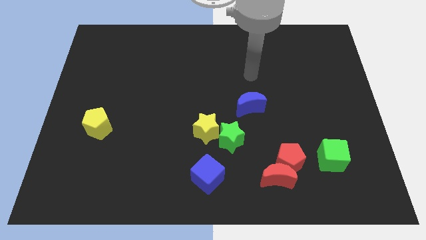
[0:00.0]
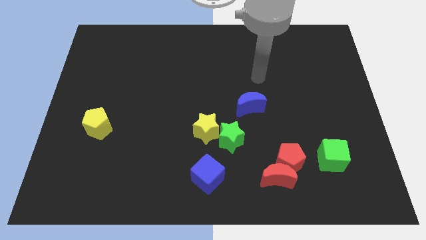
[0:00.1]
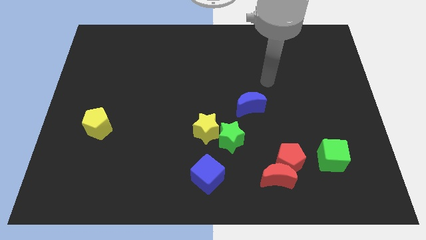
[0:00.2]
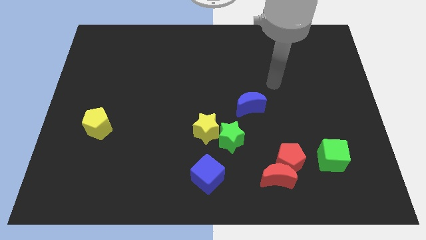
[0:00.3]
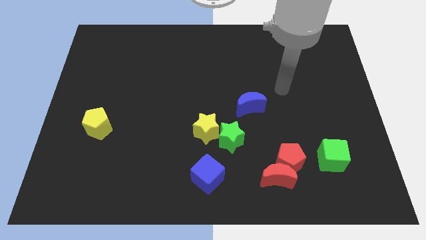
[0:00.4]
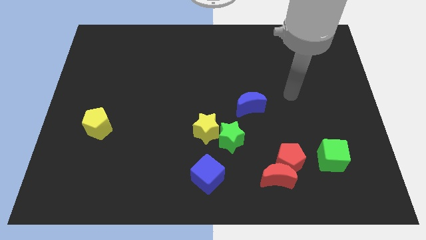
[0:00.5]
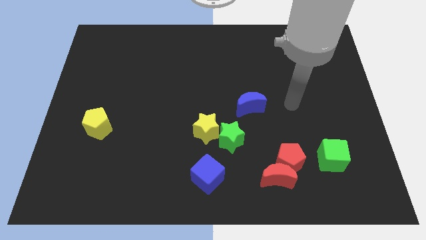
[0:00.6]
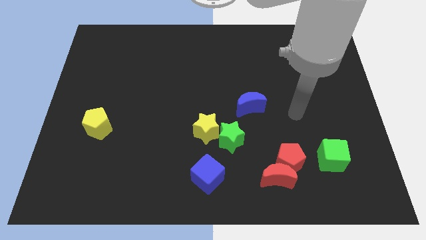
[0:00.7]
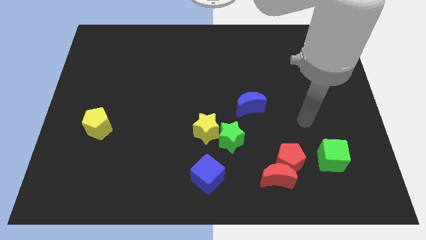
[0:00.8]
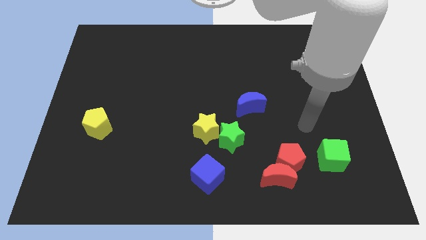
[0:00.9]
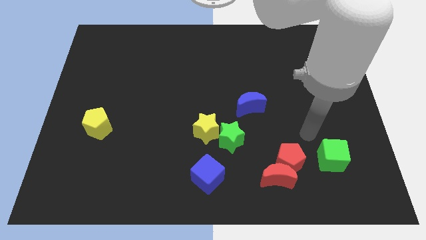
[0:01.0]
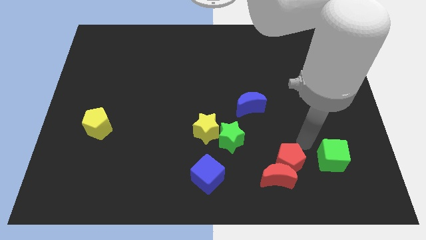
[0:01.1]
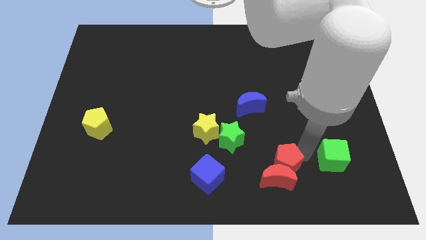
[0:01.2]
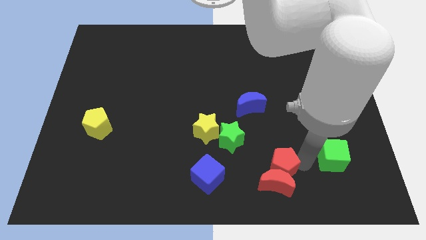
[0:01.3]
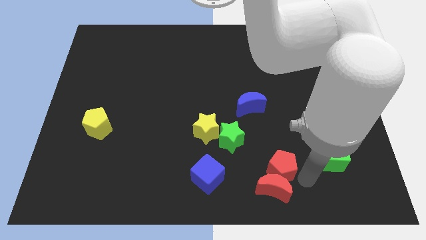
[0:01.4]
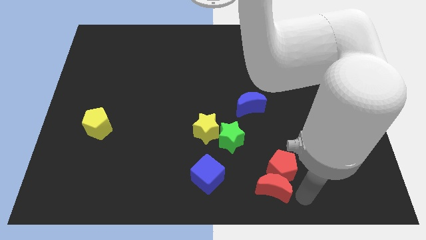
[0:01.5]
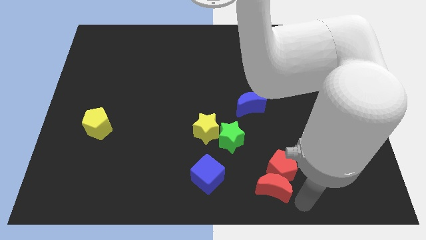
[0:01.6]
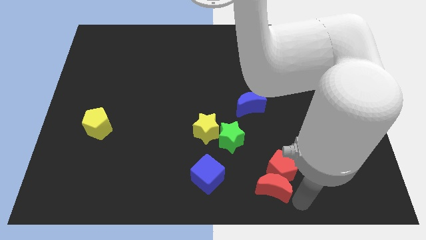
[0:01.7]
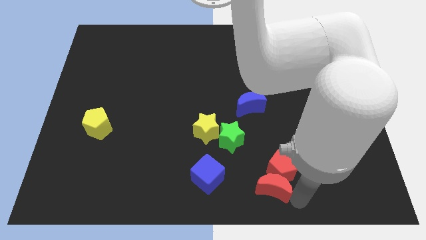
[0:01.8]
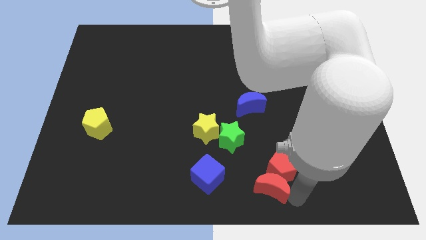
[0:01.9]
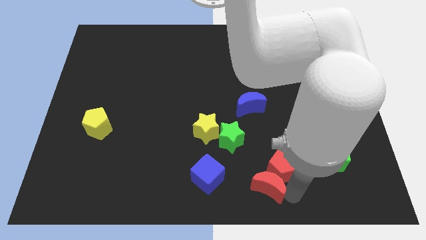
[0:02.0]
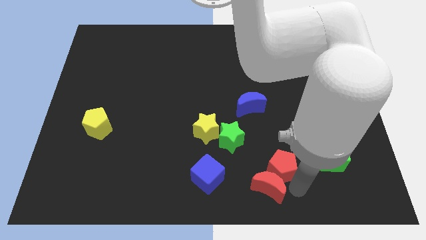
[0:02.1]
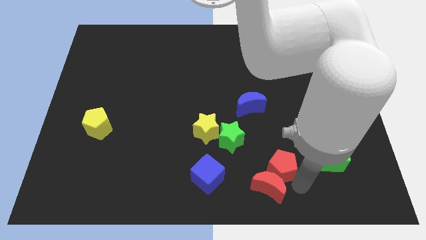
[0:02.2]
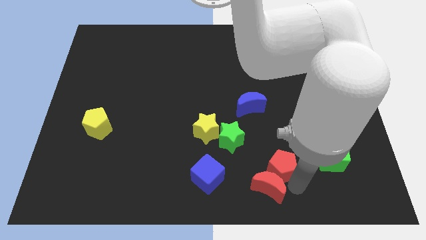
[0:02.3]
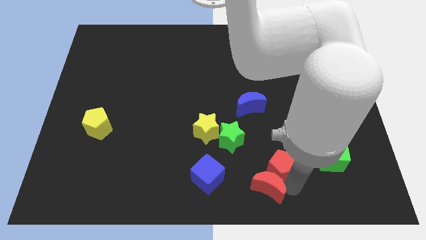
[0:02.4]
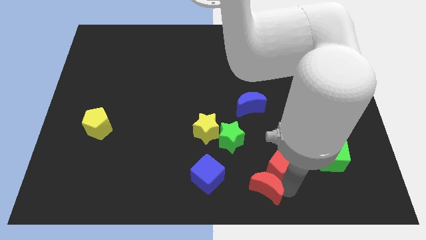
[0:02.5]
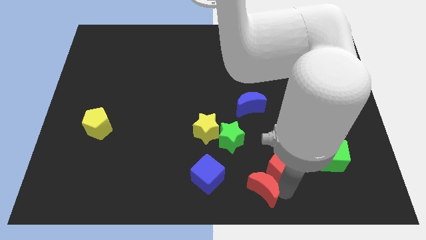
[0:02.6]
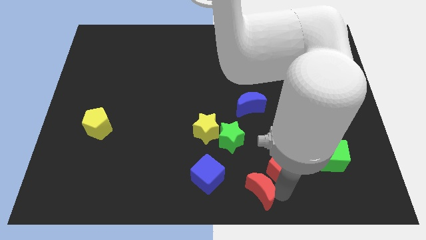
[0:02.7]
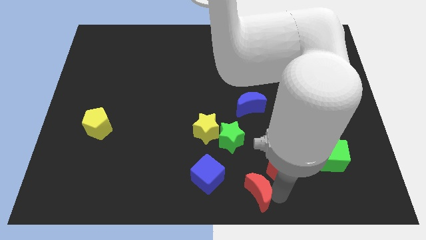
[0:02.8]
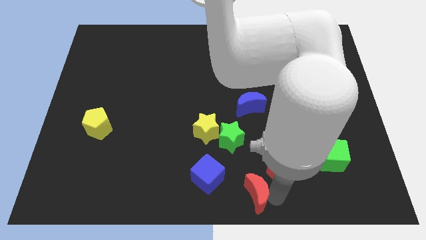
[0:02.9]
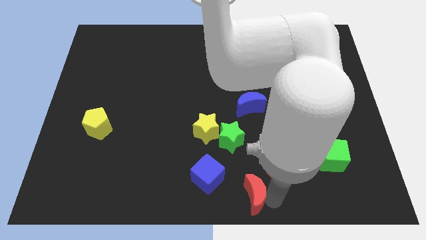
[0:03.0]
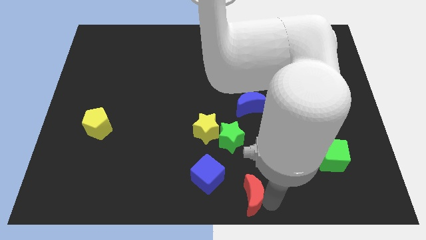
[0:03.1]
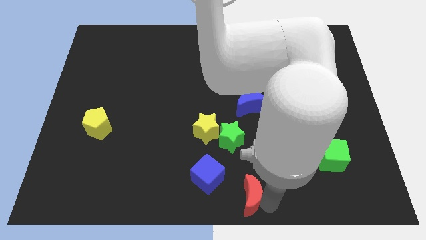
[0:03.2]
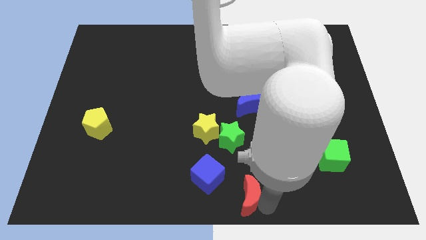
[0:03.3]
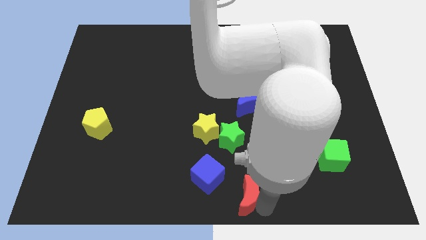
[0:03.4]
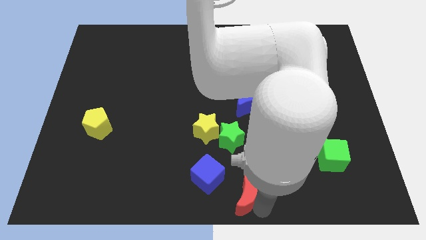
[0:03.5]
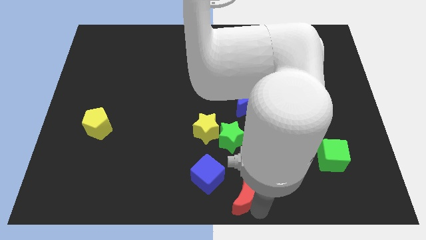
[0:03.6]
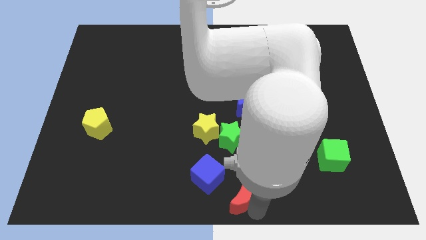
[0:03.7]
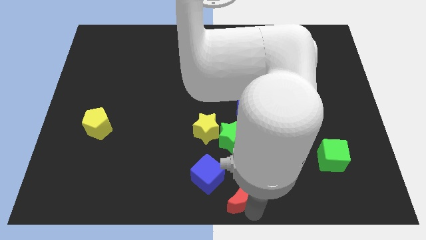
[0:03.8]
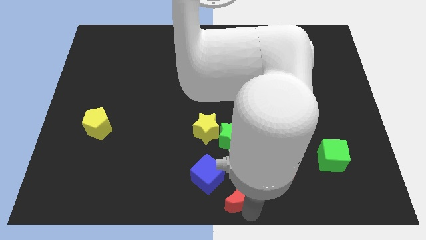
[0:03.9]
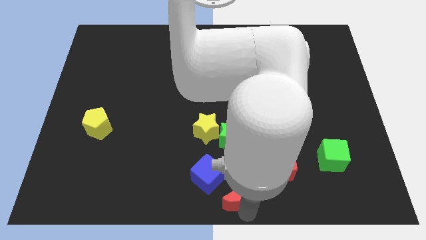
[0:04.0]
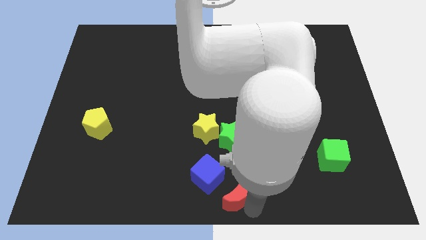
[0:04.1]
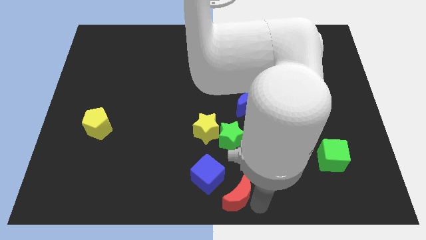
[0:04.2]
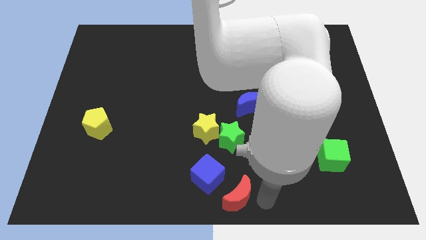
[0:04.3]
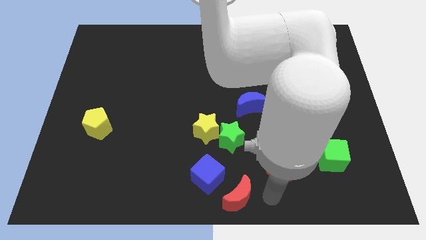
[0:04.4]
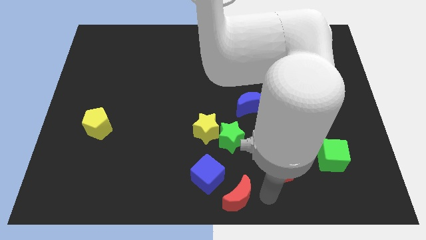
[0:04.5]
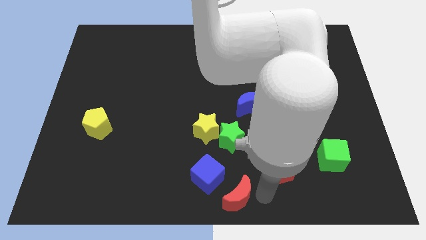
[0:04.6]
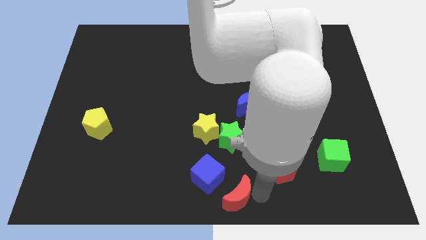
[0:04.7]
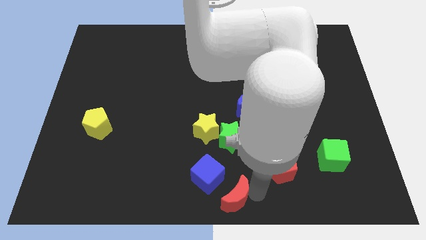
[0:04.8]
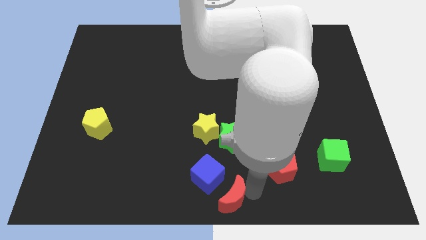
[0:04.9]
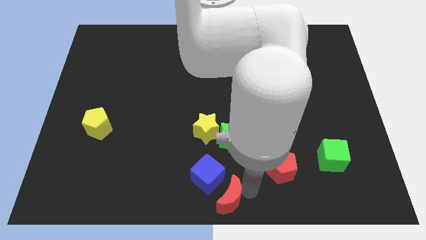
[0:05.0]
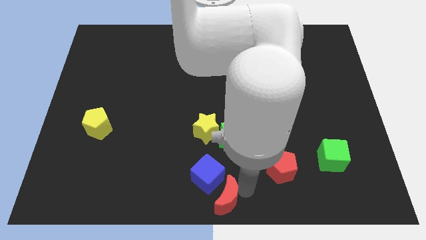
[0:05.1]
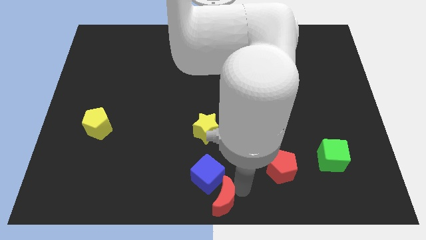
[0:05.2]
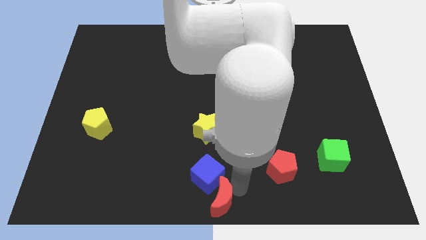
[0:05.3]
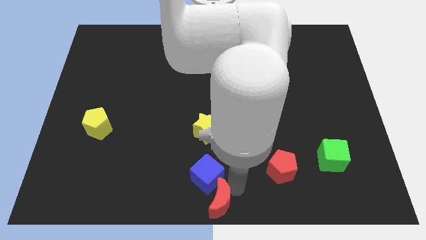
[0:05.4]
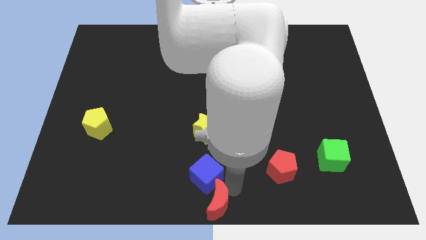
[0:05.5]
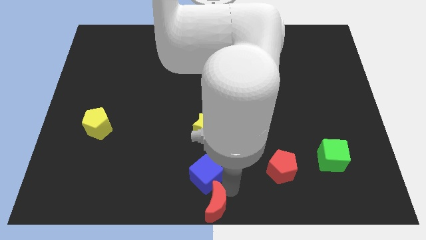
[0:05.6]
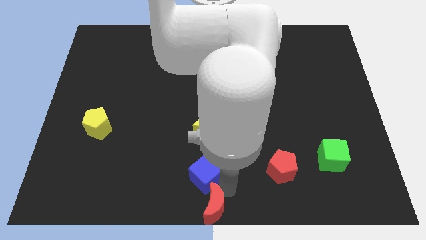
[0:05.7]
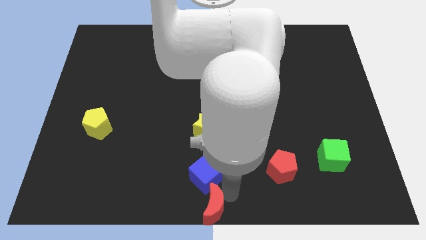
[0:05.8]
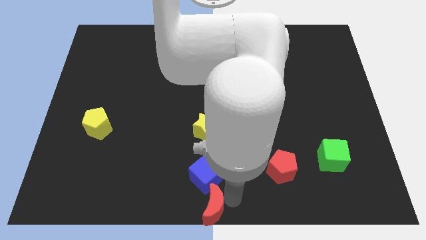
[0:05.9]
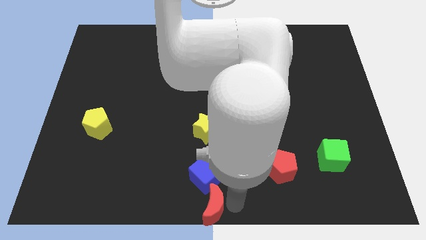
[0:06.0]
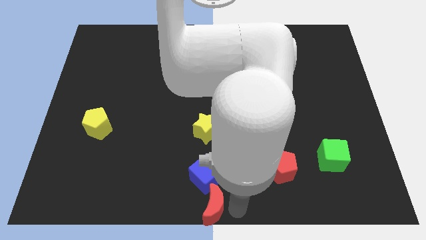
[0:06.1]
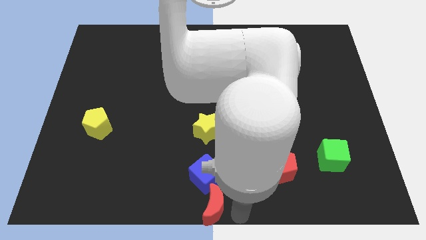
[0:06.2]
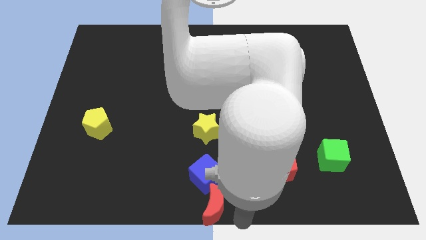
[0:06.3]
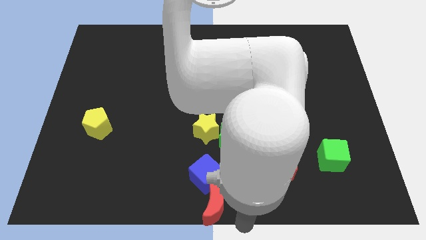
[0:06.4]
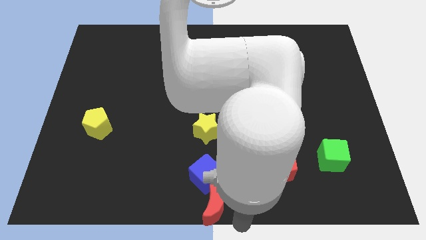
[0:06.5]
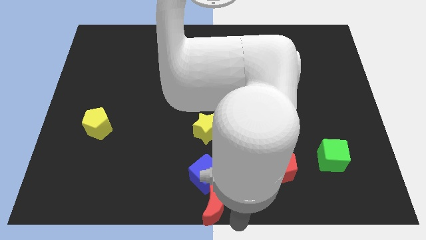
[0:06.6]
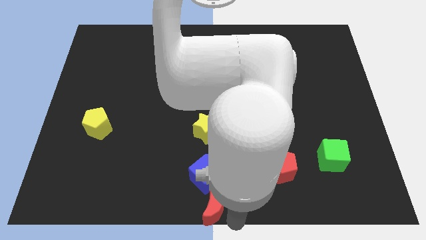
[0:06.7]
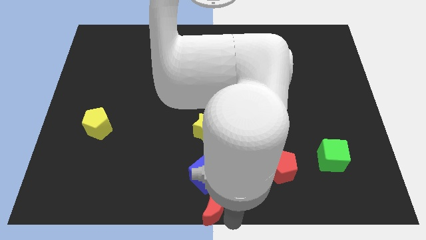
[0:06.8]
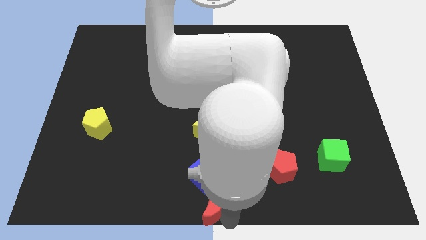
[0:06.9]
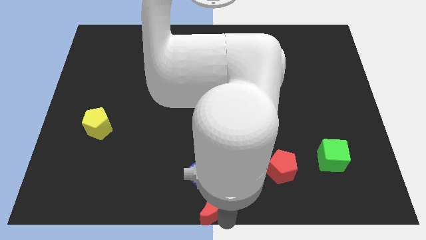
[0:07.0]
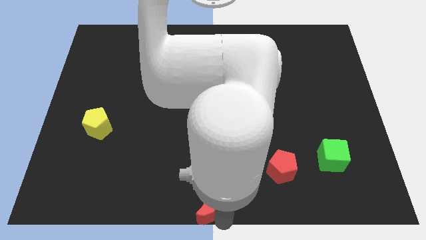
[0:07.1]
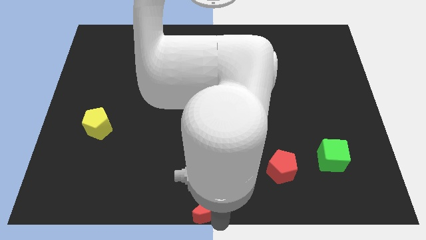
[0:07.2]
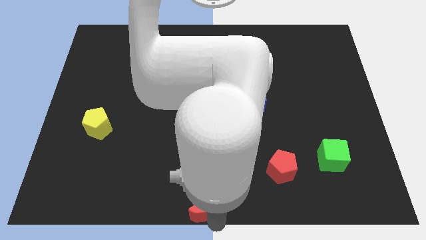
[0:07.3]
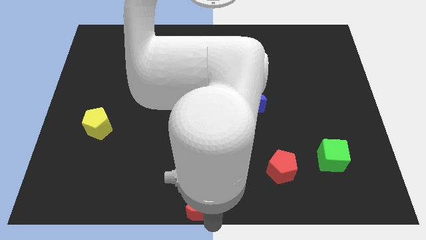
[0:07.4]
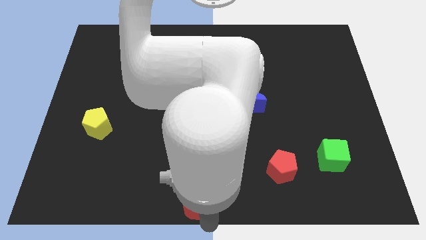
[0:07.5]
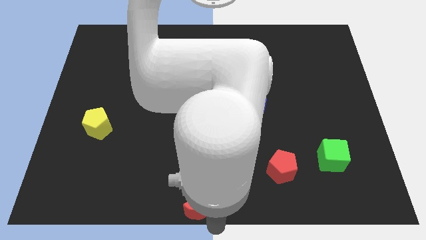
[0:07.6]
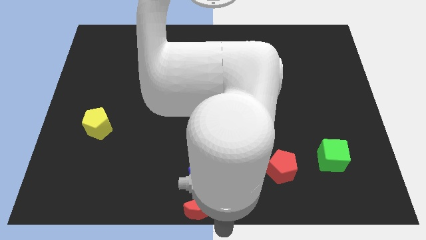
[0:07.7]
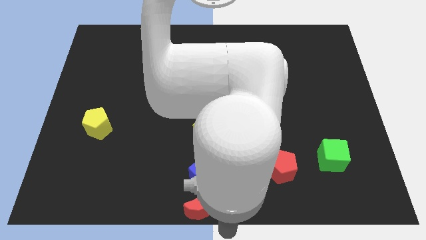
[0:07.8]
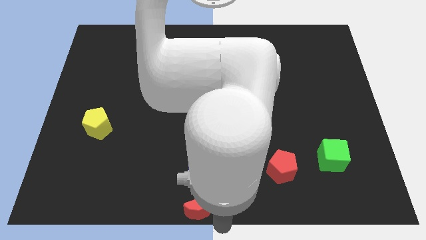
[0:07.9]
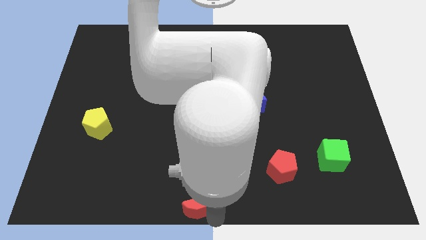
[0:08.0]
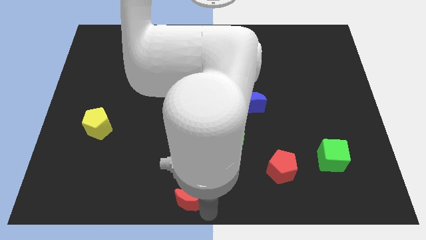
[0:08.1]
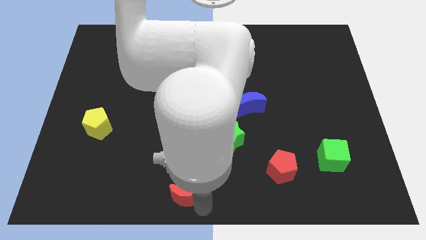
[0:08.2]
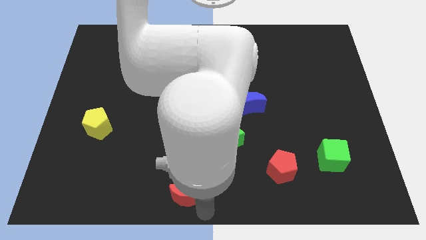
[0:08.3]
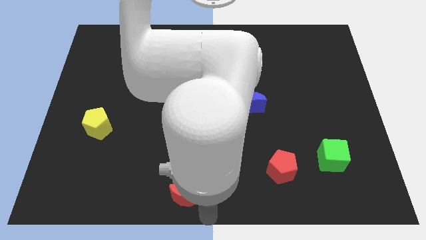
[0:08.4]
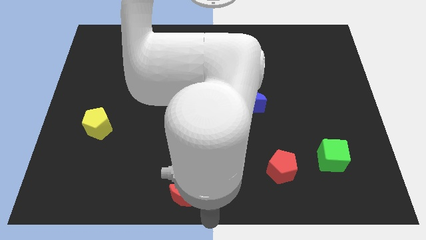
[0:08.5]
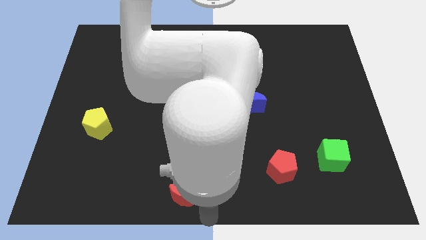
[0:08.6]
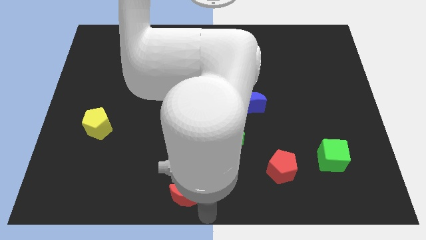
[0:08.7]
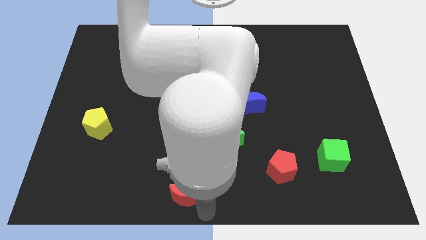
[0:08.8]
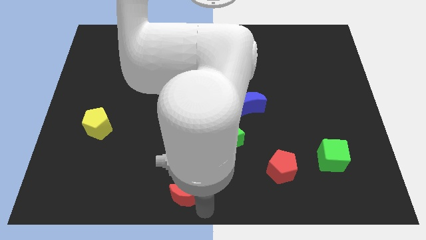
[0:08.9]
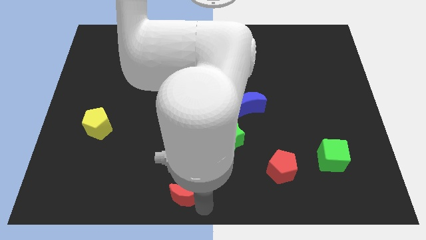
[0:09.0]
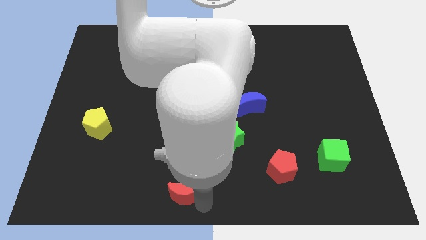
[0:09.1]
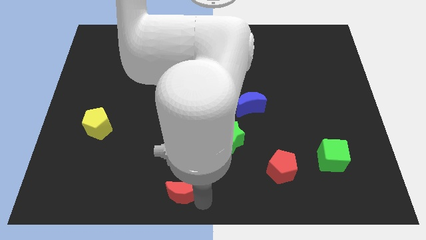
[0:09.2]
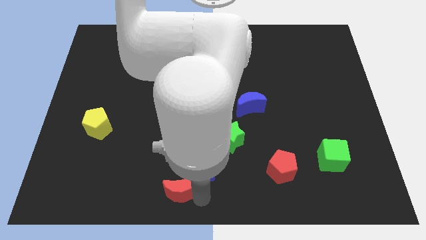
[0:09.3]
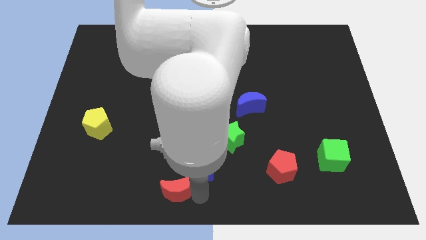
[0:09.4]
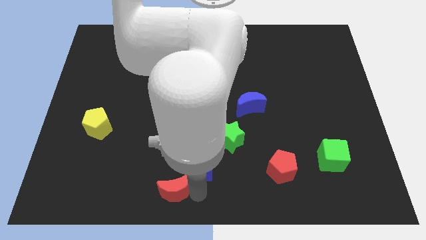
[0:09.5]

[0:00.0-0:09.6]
slide the red moon left
